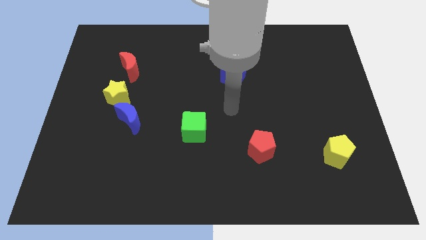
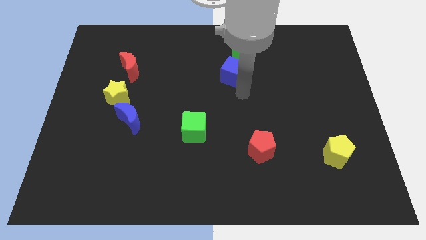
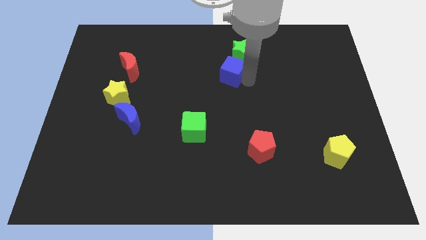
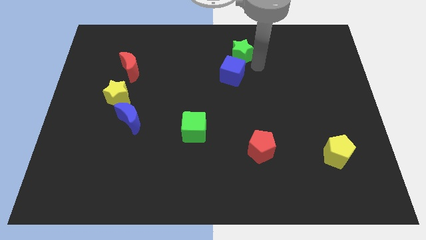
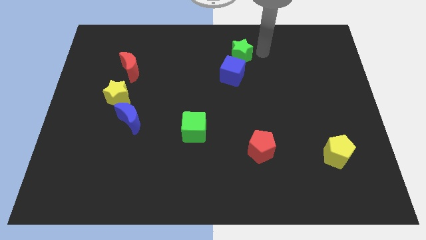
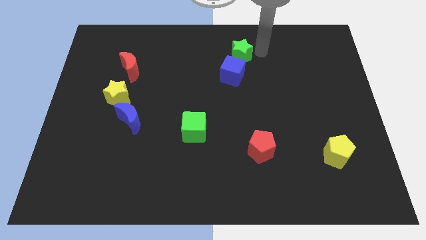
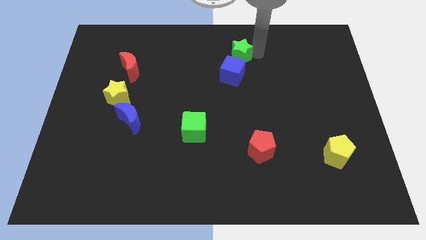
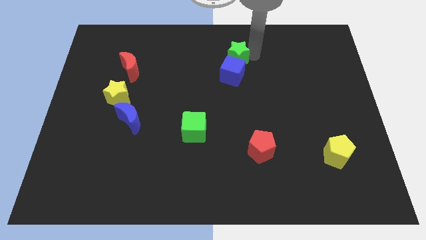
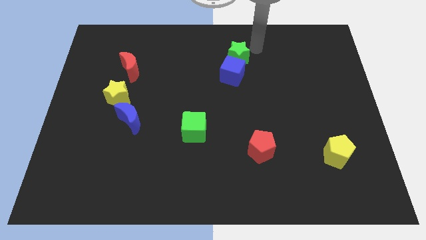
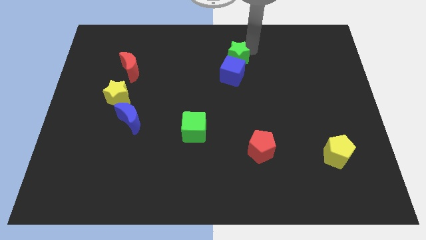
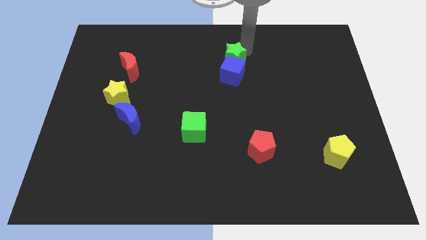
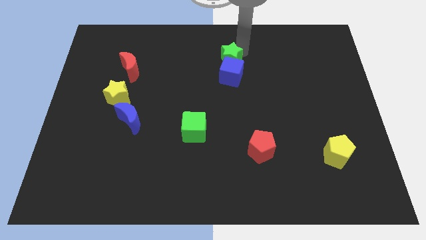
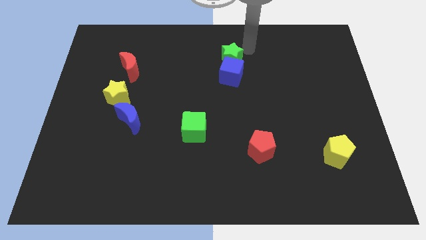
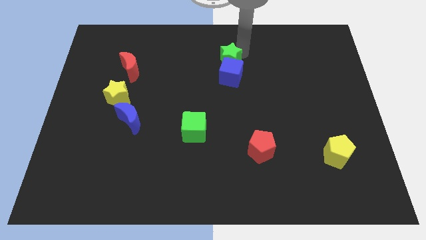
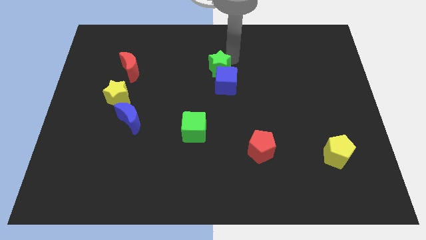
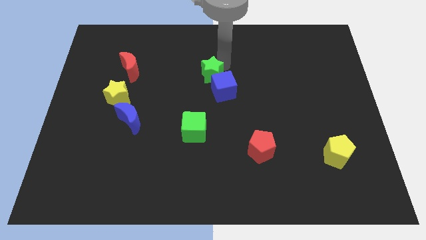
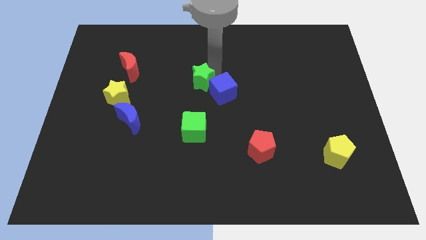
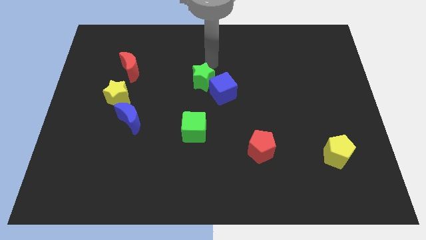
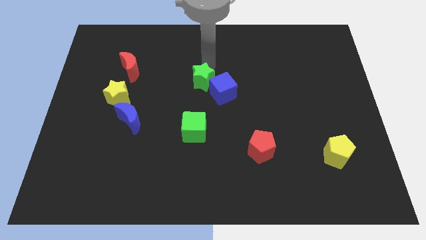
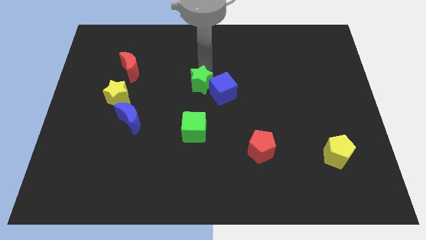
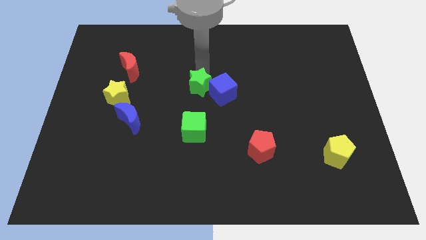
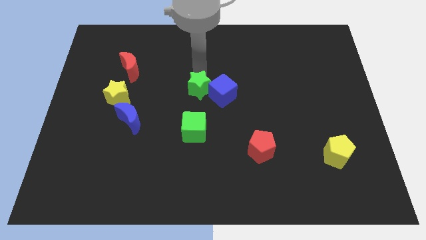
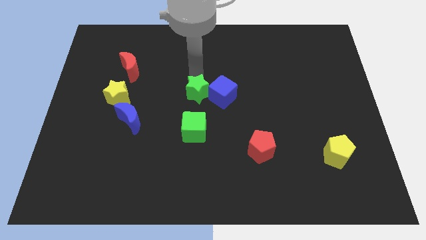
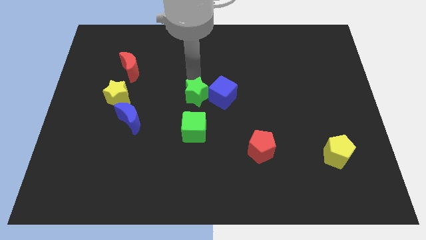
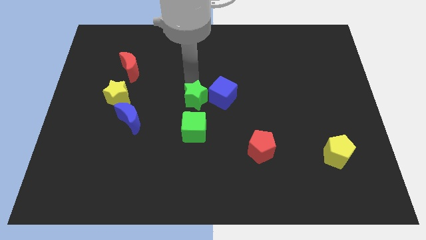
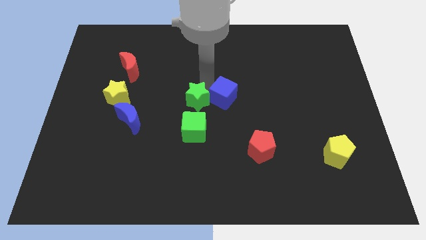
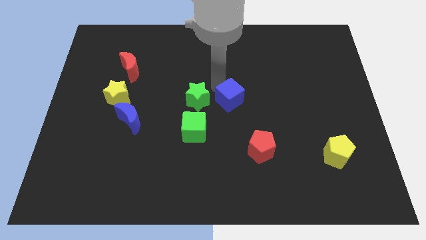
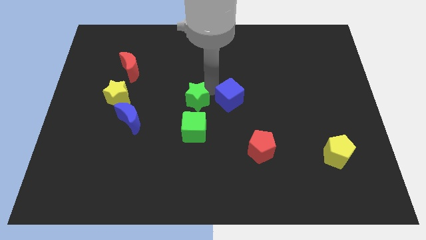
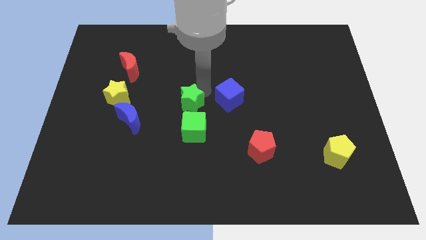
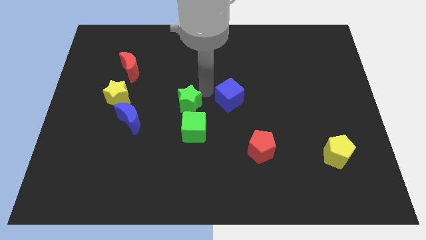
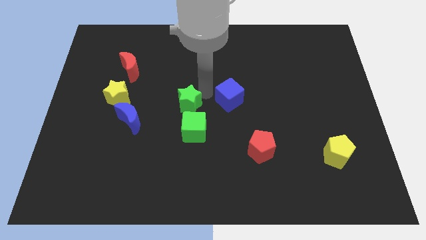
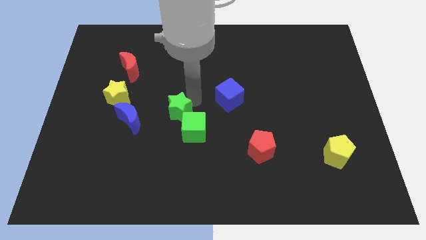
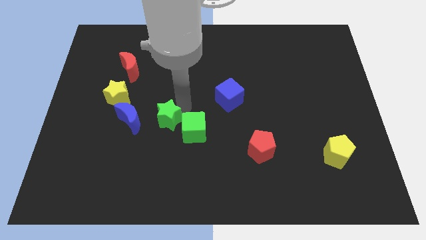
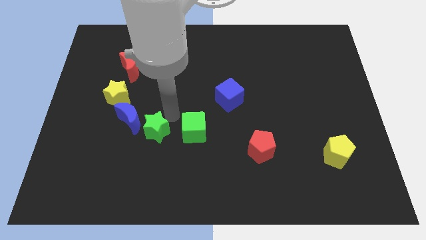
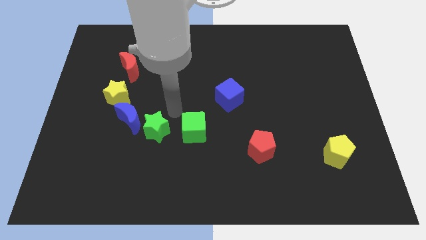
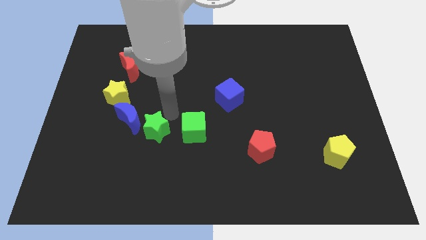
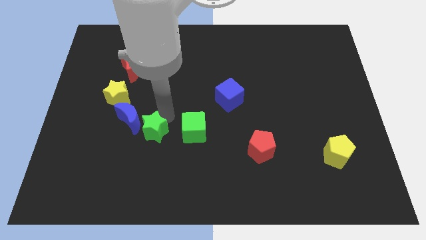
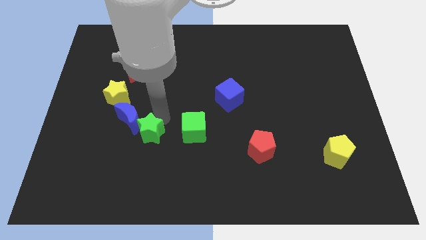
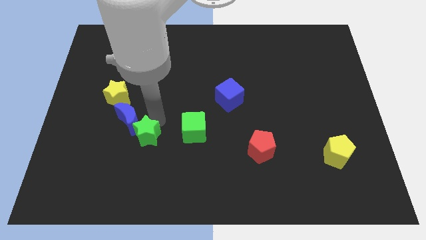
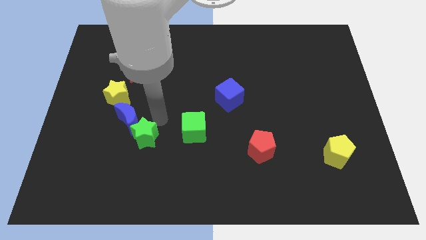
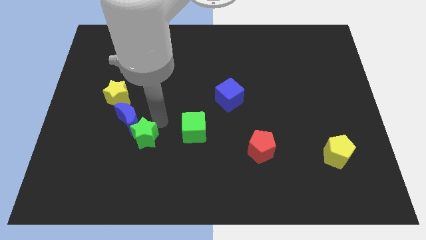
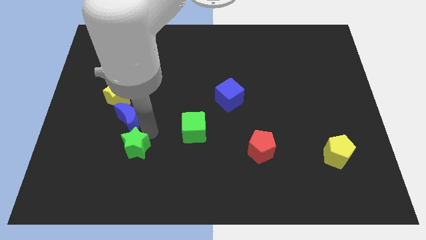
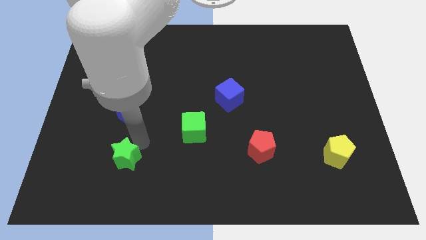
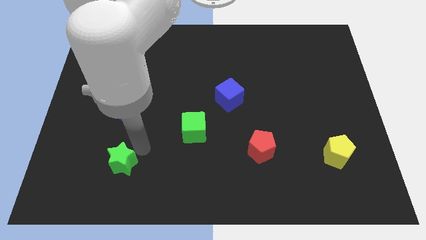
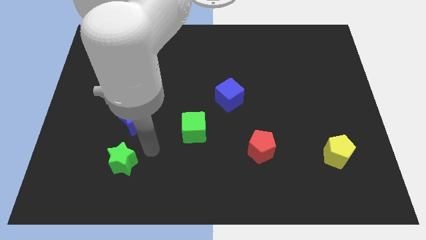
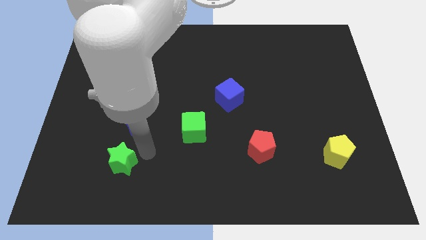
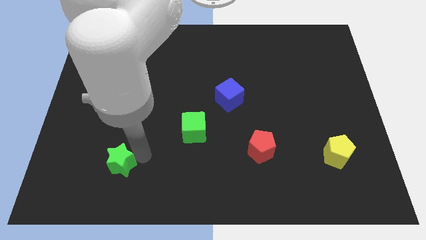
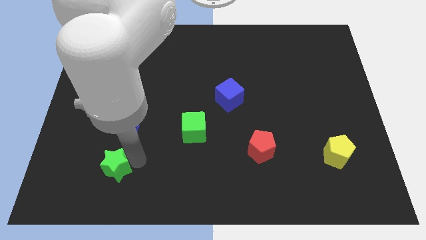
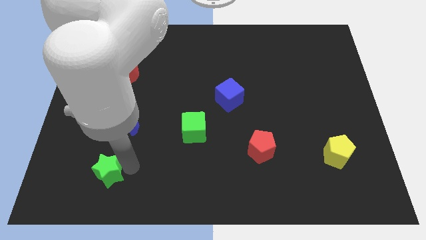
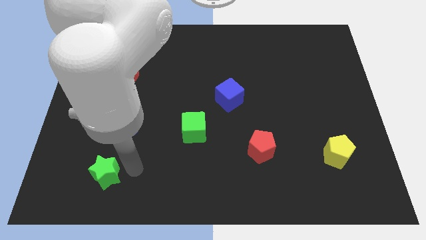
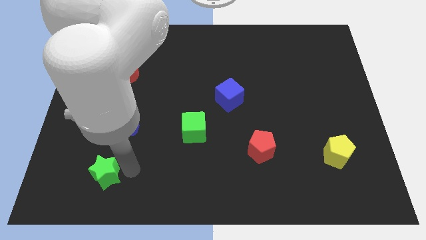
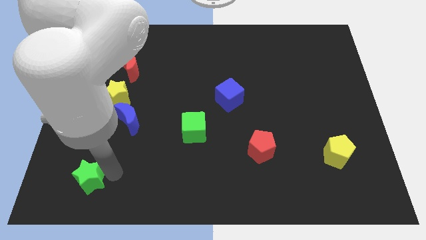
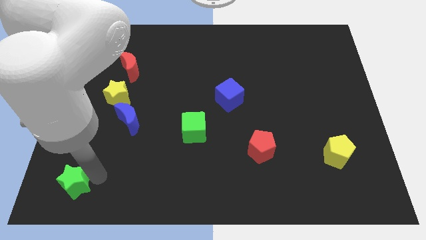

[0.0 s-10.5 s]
push the green star to the lower left corner

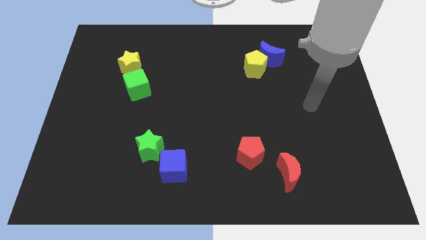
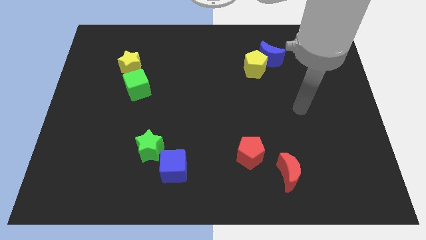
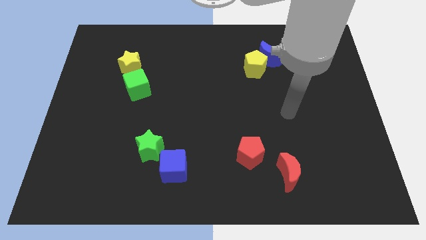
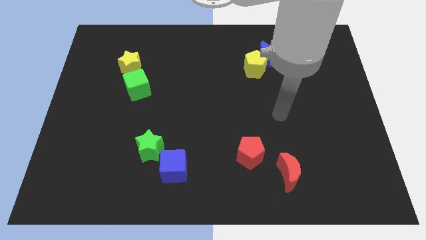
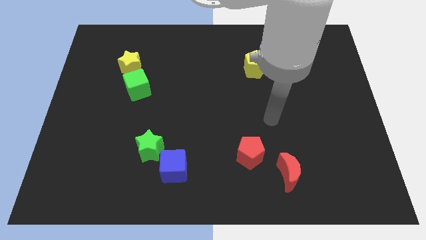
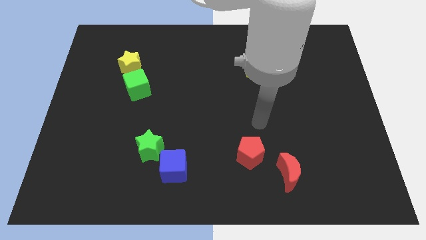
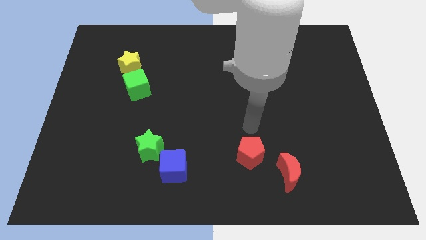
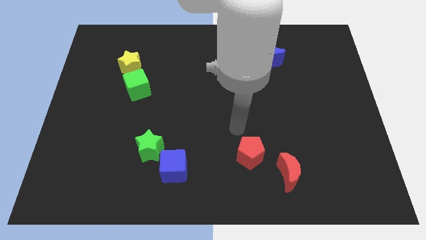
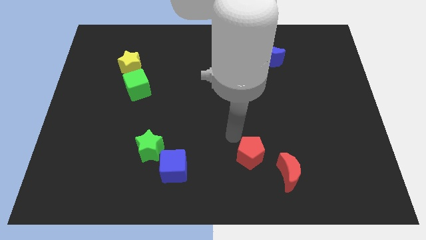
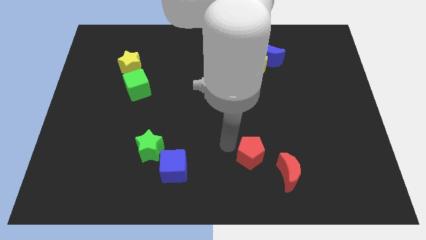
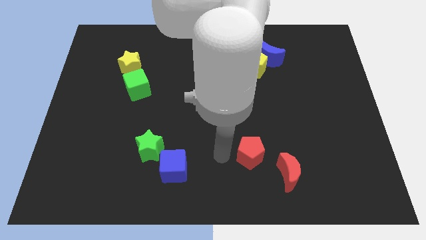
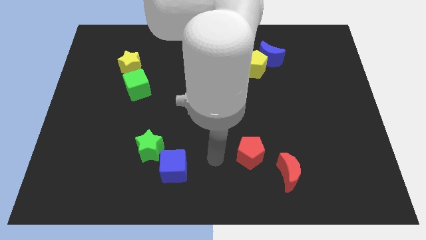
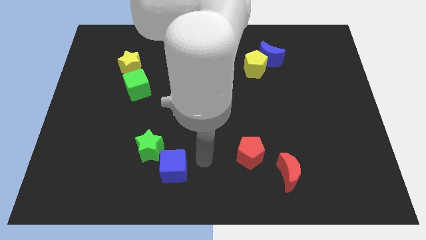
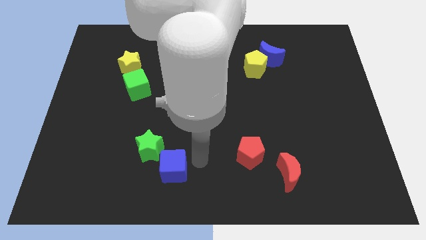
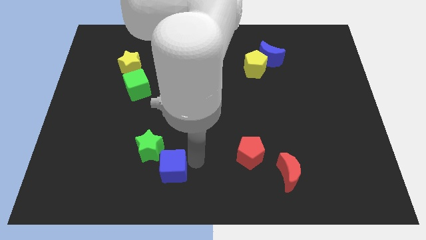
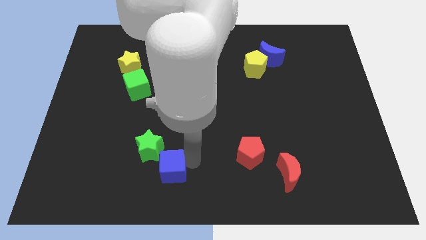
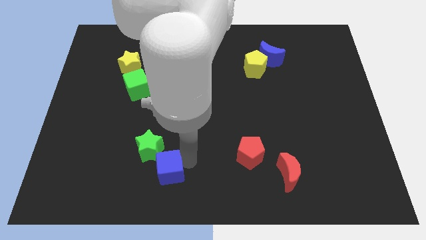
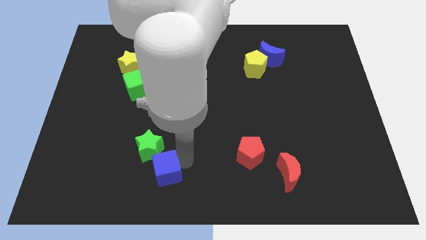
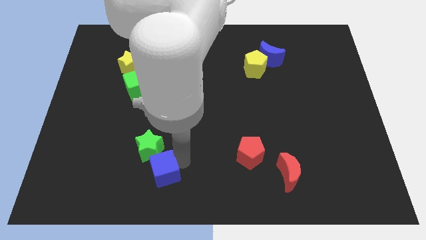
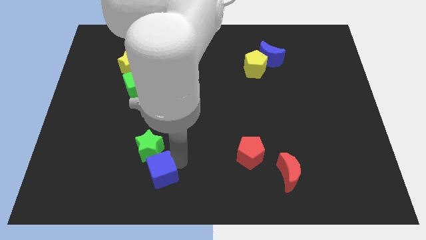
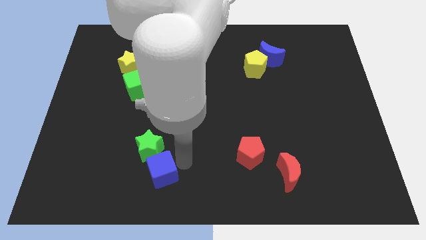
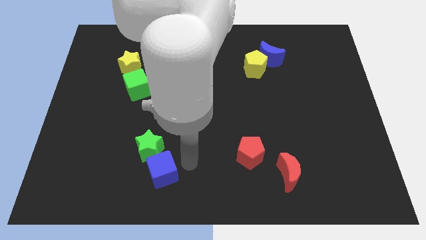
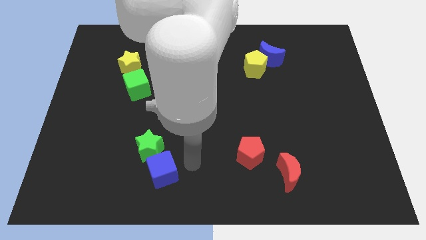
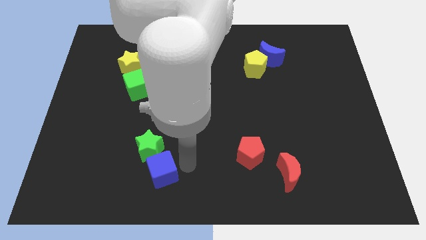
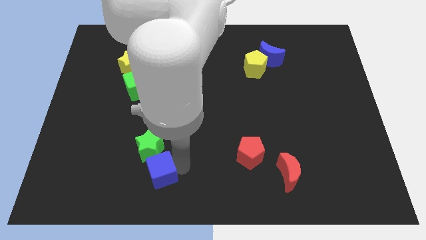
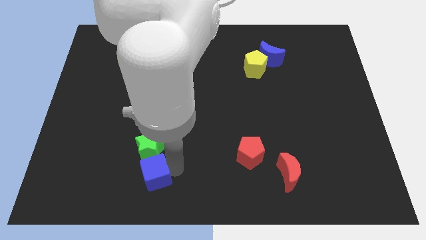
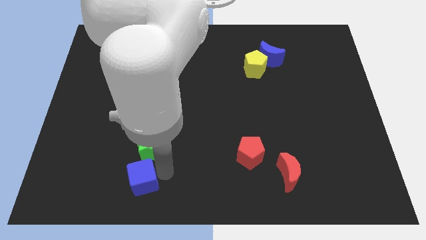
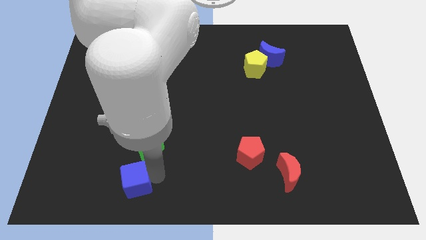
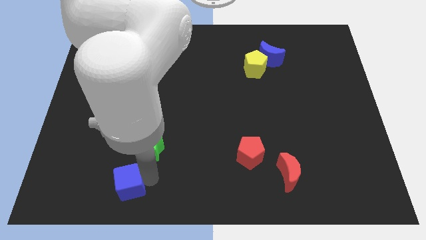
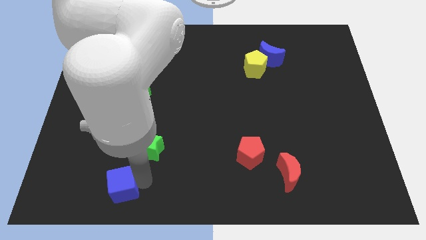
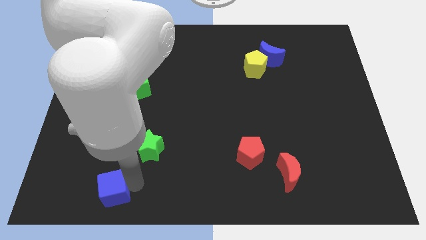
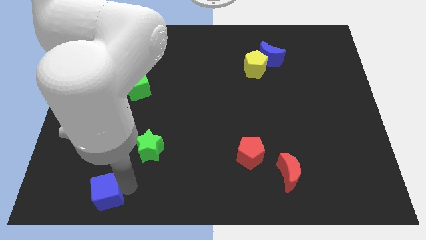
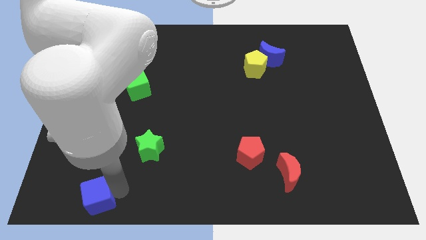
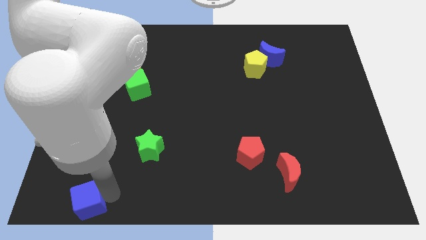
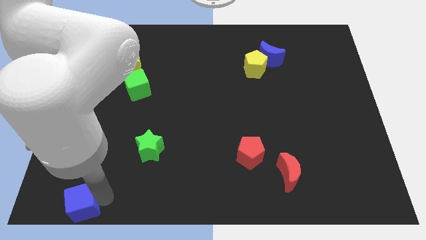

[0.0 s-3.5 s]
push the blue cube to the bottom left corner
